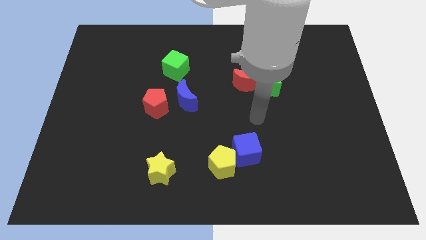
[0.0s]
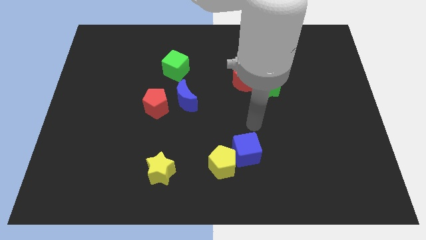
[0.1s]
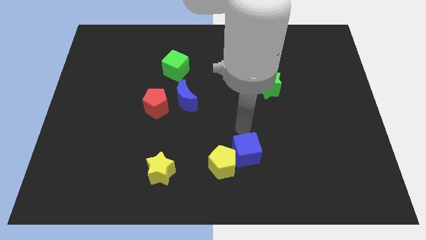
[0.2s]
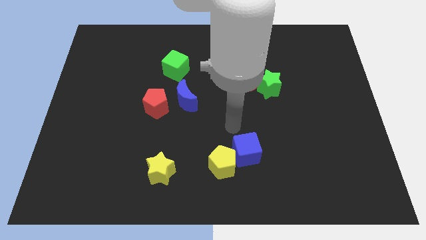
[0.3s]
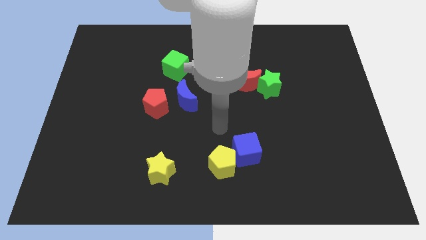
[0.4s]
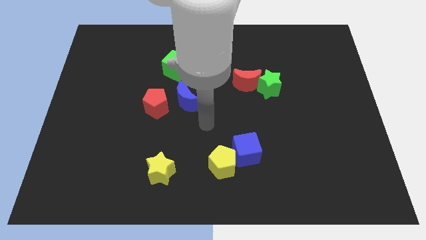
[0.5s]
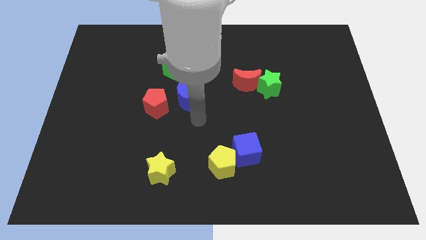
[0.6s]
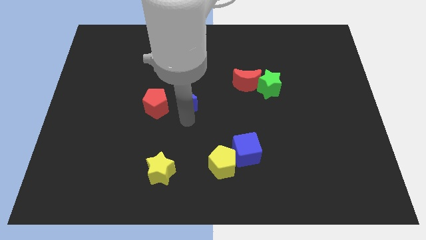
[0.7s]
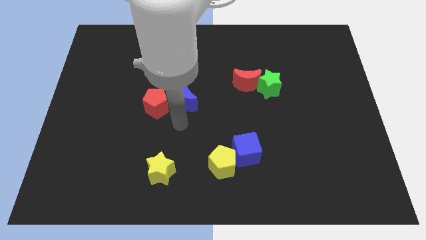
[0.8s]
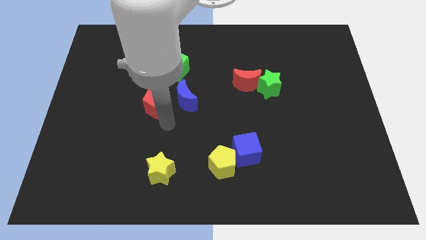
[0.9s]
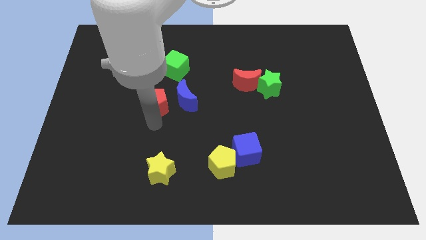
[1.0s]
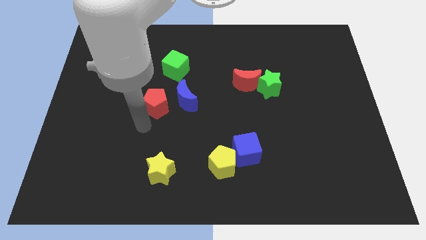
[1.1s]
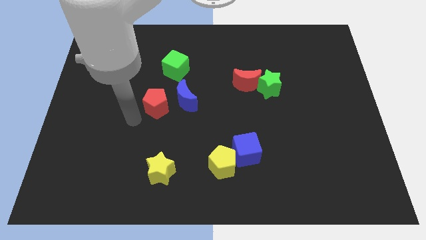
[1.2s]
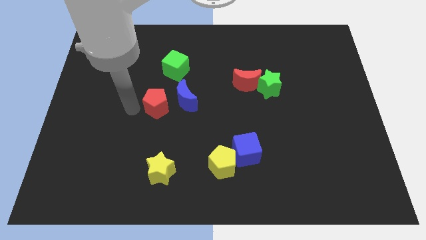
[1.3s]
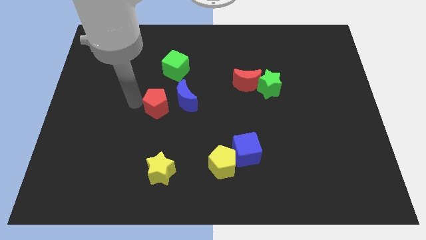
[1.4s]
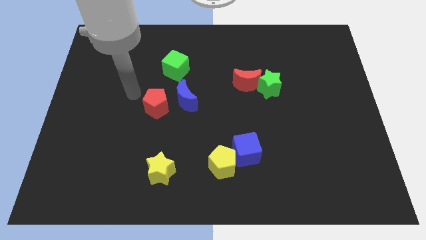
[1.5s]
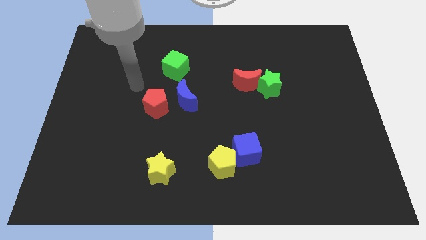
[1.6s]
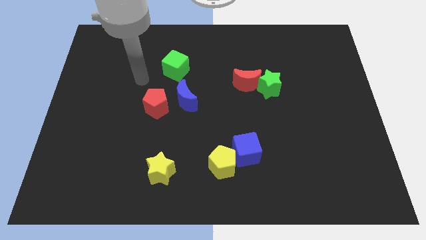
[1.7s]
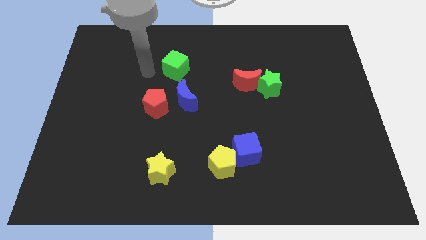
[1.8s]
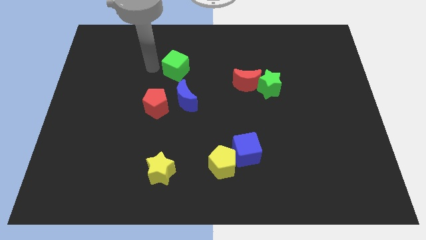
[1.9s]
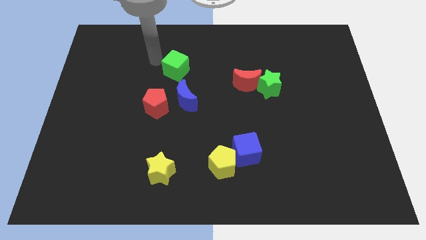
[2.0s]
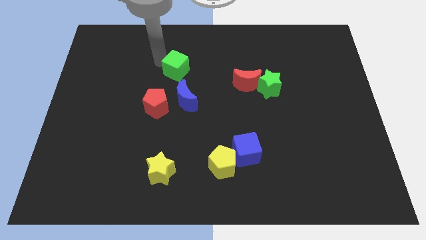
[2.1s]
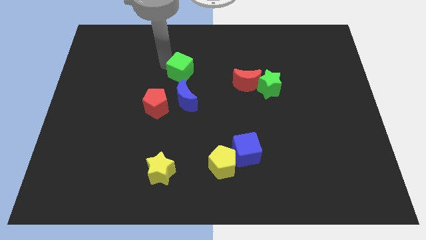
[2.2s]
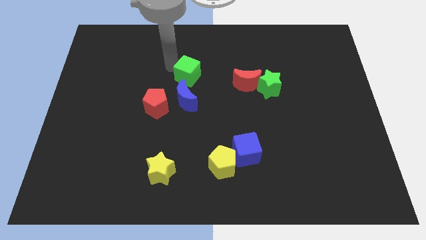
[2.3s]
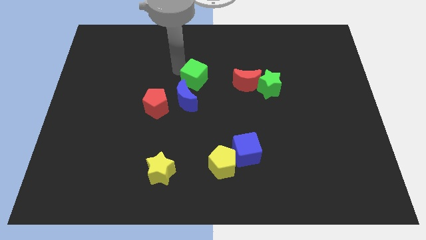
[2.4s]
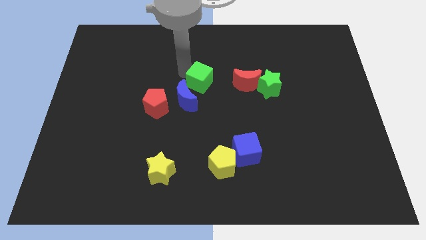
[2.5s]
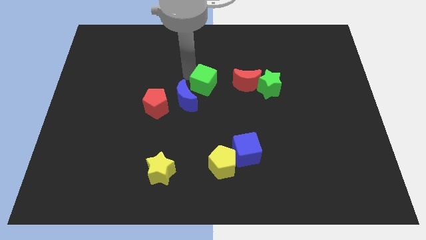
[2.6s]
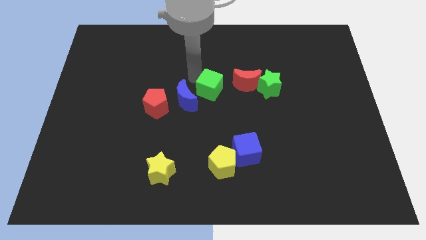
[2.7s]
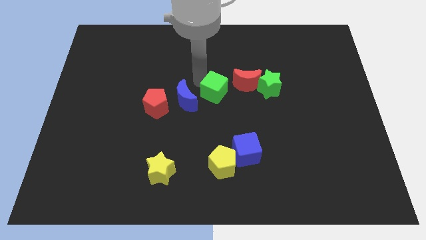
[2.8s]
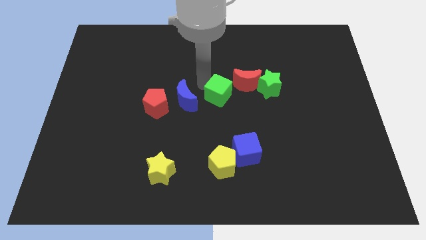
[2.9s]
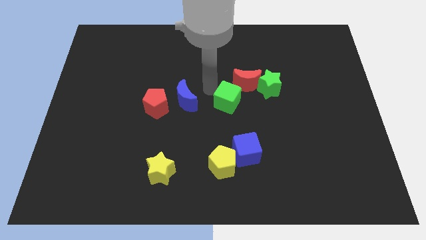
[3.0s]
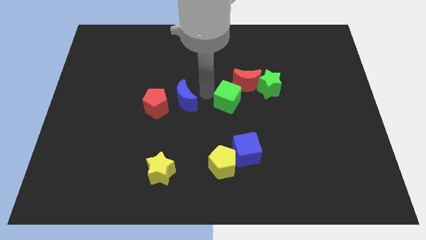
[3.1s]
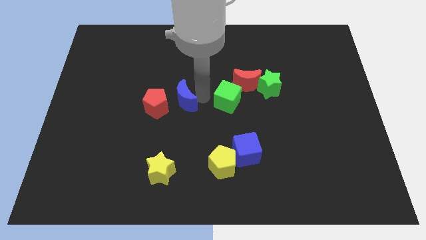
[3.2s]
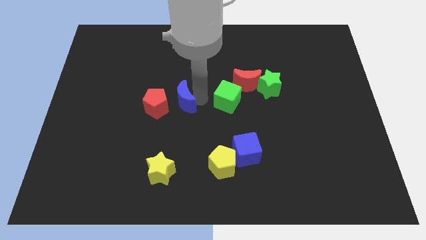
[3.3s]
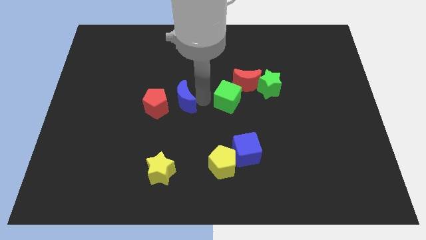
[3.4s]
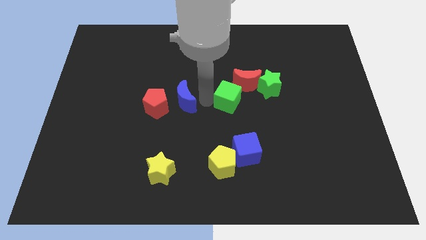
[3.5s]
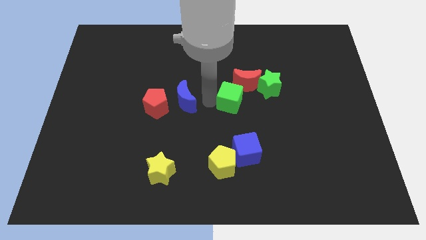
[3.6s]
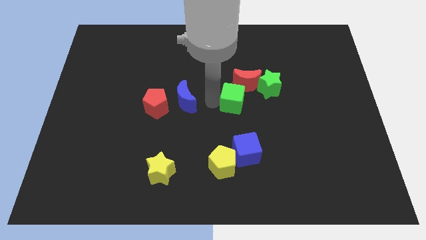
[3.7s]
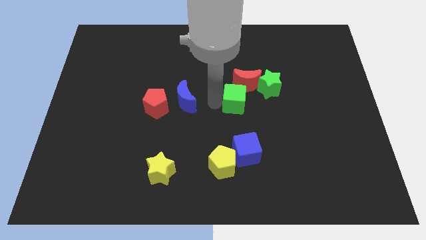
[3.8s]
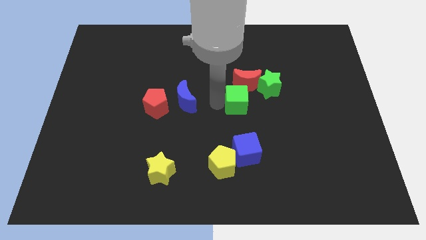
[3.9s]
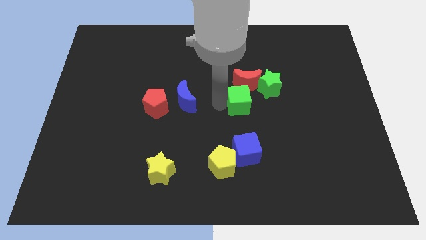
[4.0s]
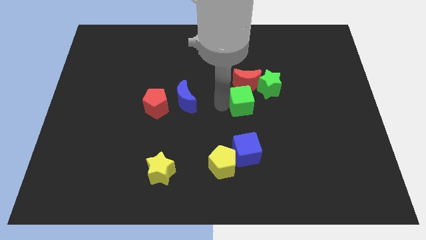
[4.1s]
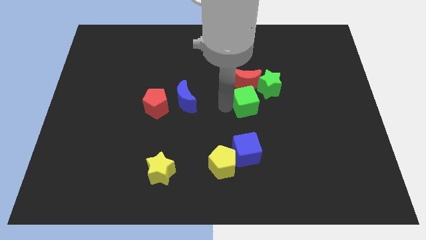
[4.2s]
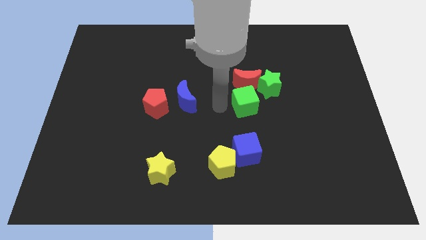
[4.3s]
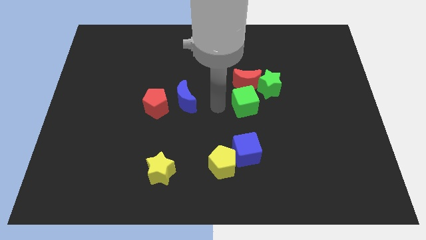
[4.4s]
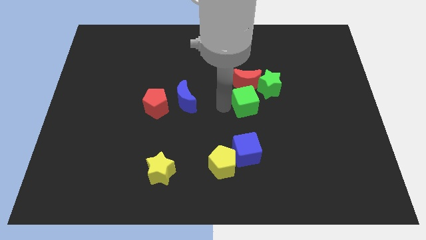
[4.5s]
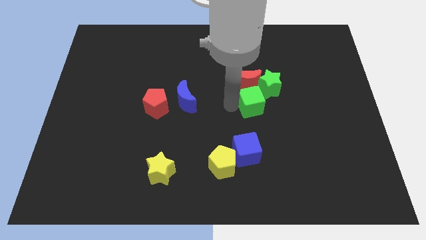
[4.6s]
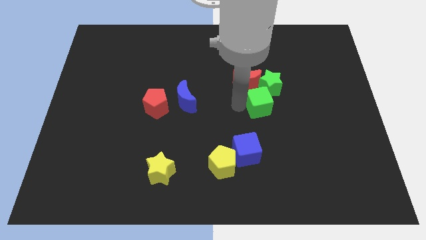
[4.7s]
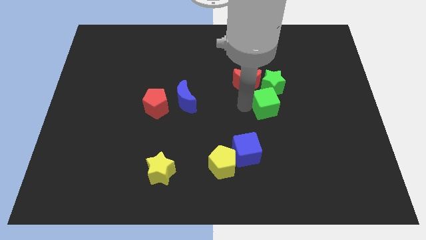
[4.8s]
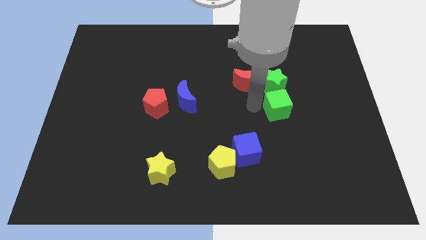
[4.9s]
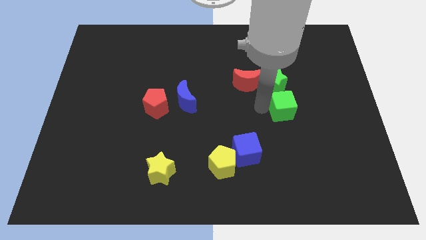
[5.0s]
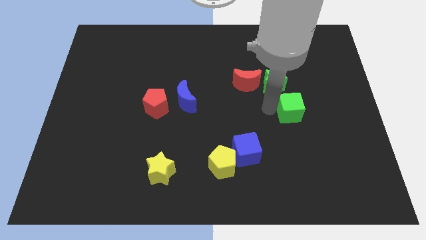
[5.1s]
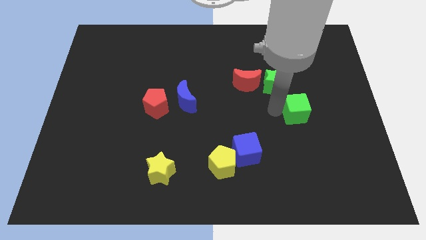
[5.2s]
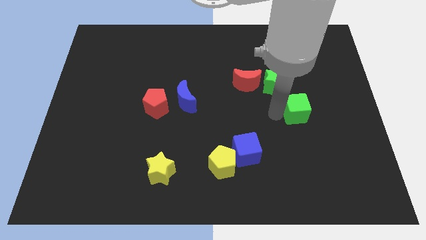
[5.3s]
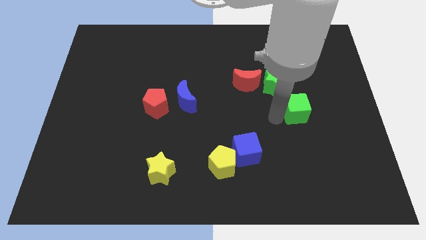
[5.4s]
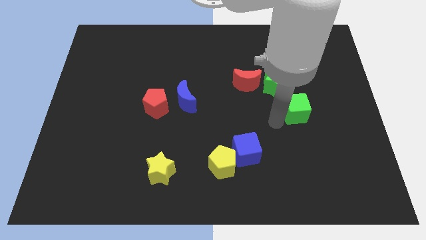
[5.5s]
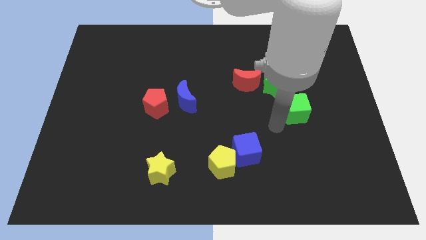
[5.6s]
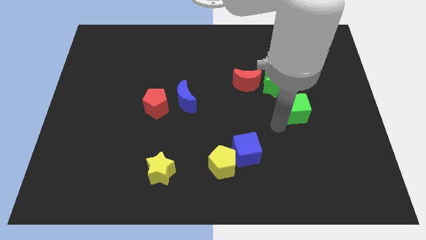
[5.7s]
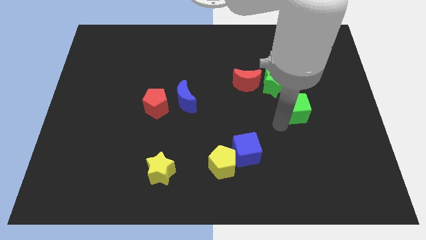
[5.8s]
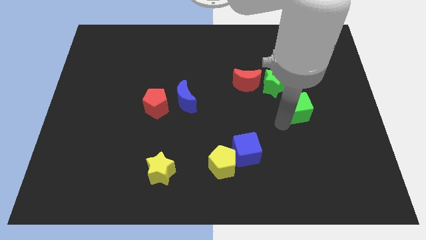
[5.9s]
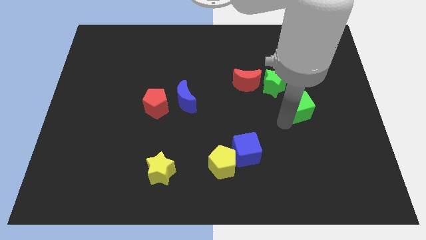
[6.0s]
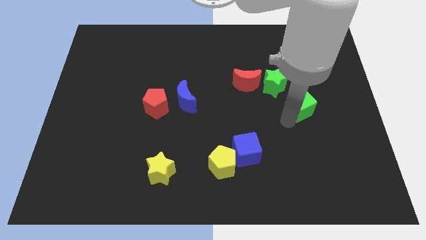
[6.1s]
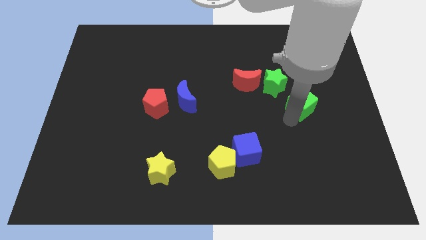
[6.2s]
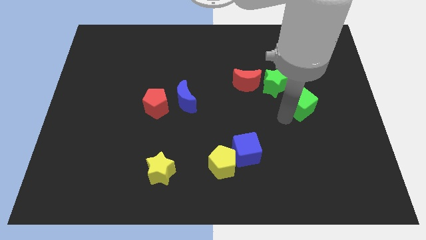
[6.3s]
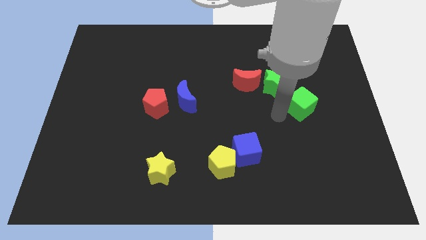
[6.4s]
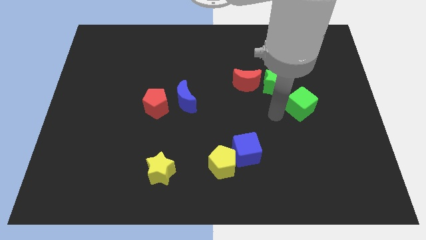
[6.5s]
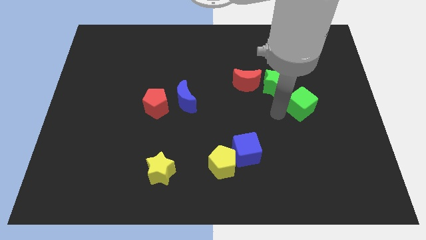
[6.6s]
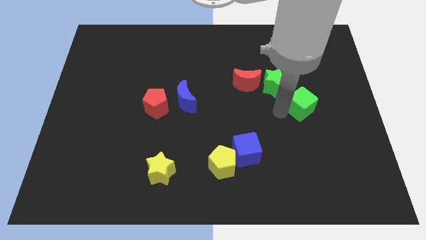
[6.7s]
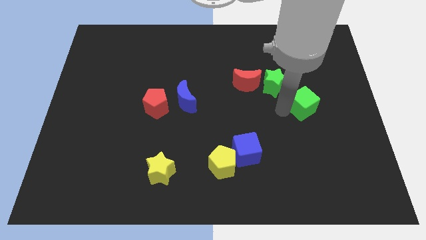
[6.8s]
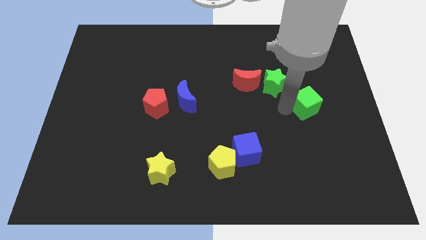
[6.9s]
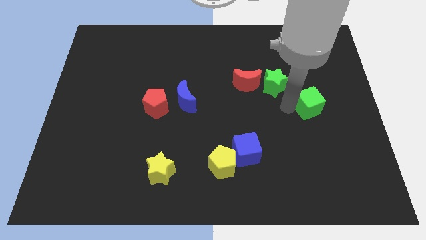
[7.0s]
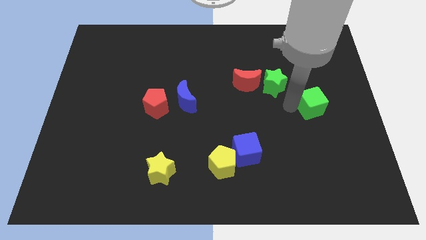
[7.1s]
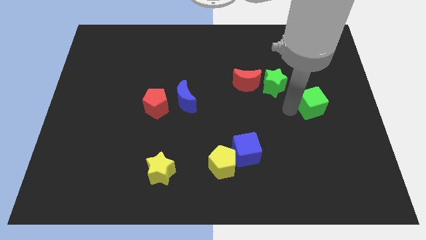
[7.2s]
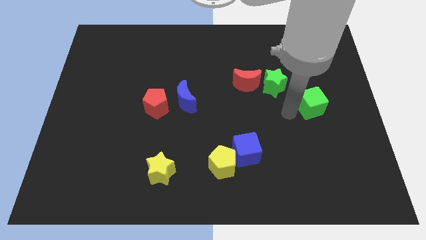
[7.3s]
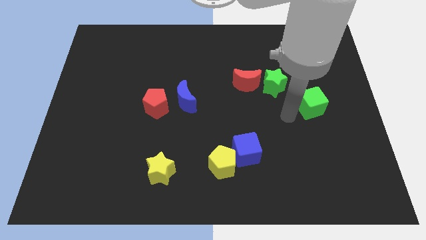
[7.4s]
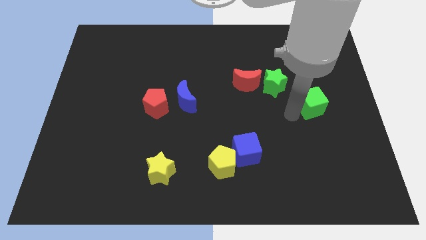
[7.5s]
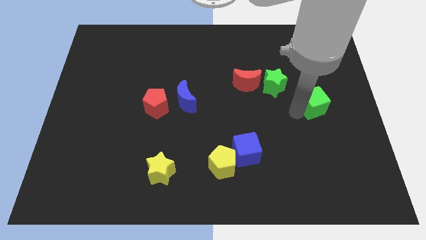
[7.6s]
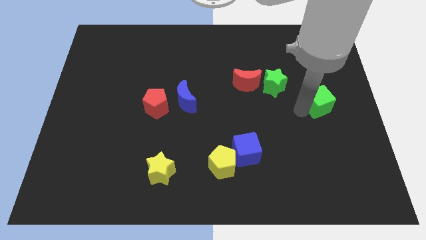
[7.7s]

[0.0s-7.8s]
put the green cube to the center right
